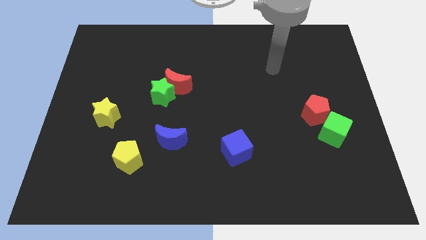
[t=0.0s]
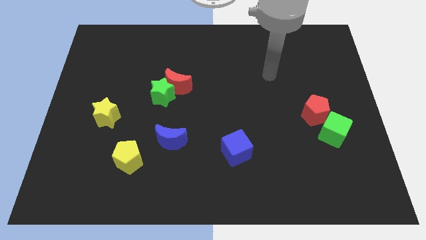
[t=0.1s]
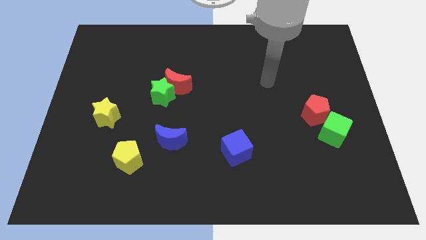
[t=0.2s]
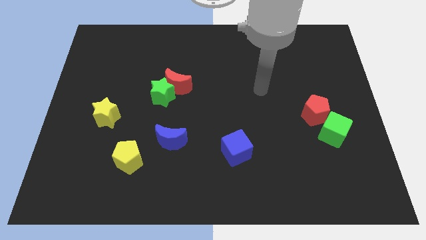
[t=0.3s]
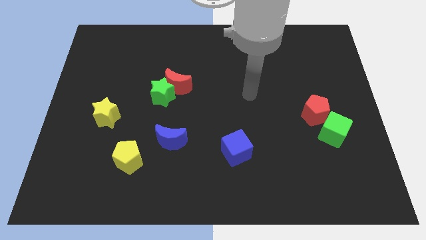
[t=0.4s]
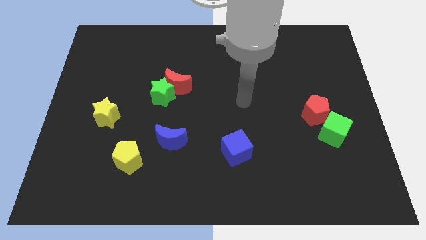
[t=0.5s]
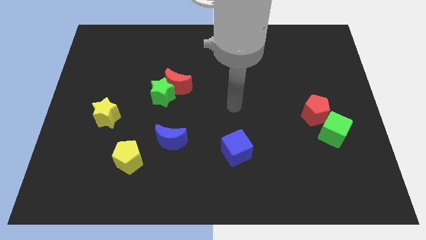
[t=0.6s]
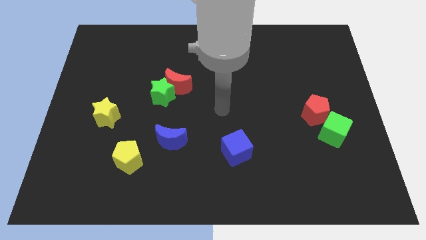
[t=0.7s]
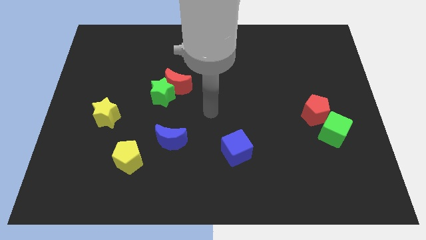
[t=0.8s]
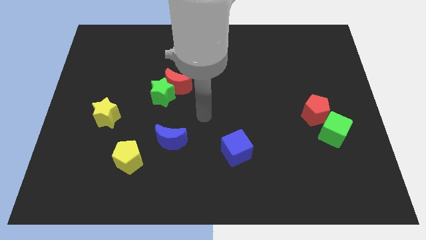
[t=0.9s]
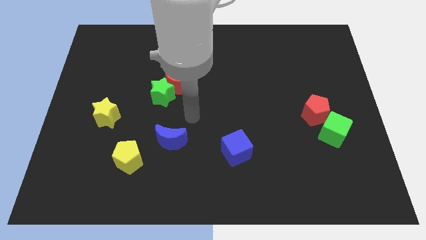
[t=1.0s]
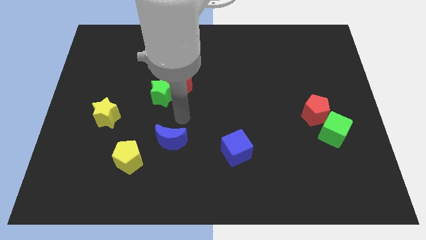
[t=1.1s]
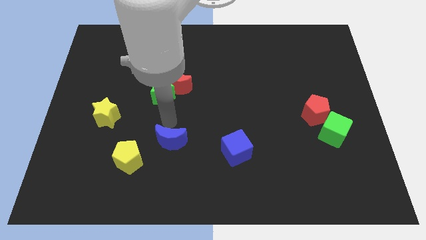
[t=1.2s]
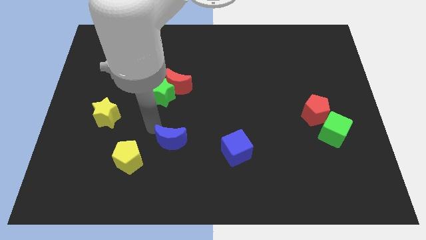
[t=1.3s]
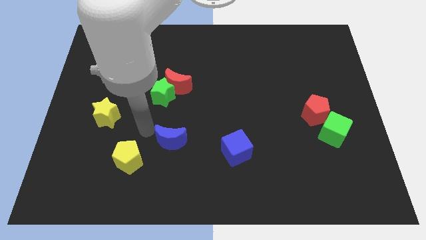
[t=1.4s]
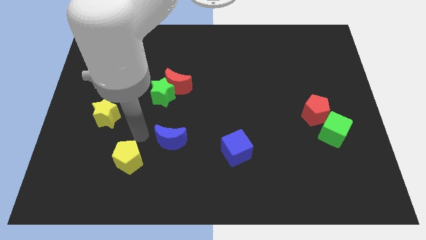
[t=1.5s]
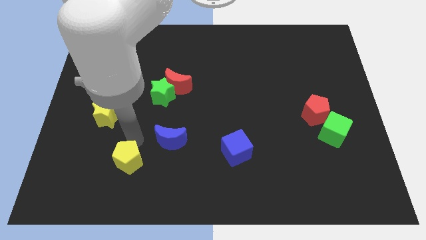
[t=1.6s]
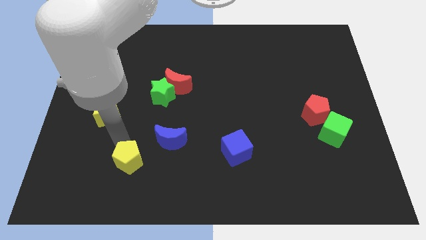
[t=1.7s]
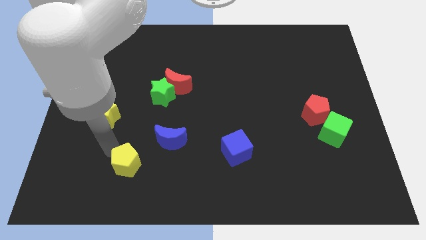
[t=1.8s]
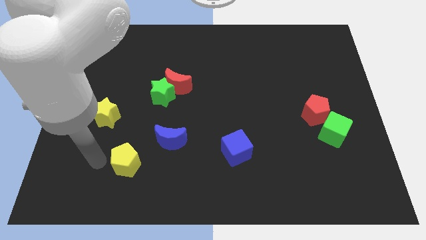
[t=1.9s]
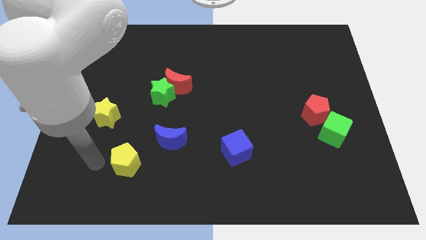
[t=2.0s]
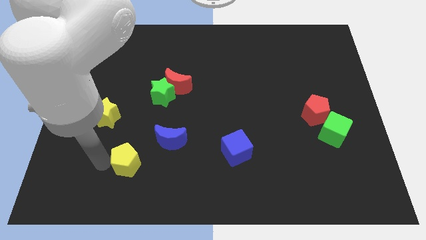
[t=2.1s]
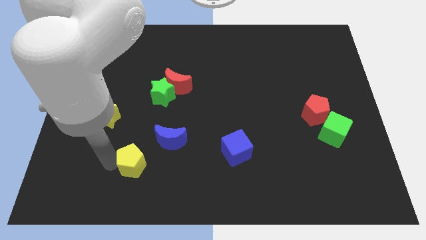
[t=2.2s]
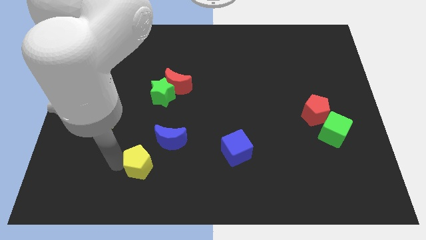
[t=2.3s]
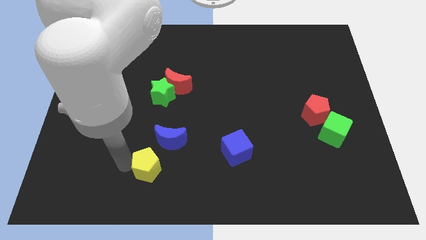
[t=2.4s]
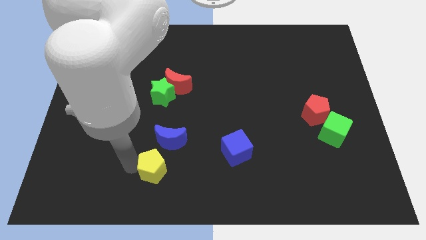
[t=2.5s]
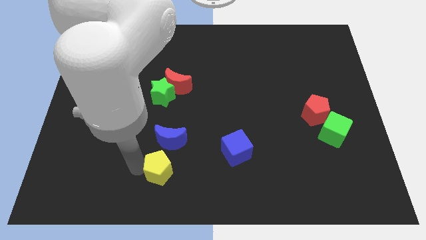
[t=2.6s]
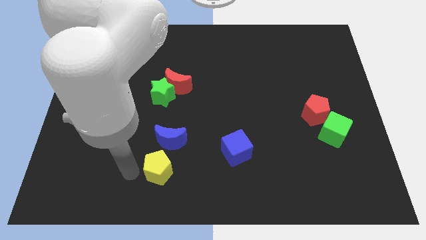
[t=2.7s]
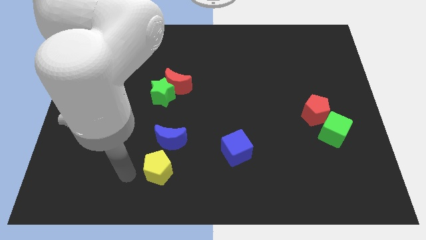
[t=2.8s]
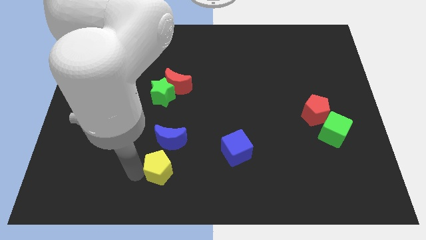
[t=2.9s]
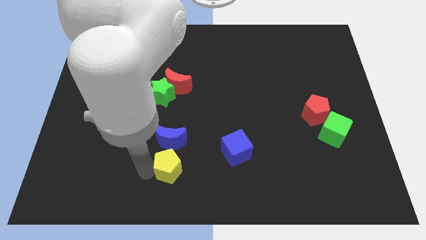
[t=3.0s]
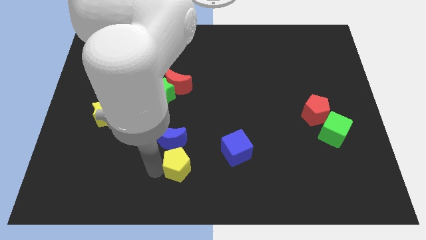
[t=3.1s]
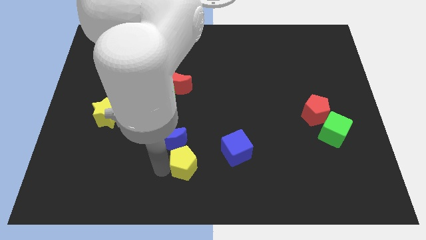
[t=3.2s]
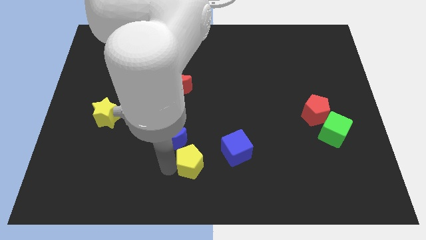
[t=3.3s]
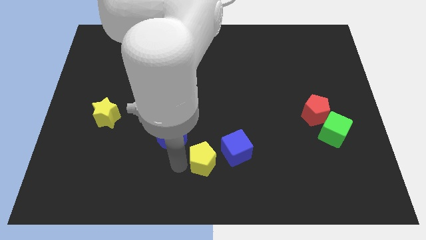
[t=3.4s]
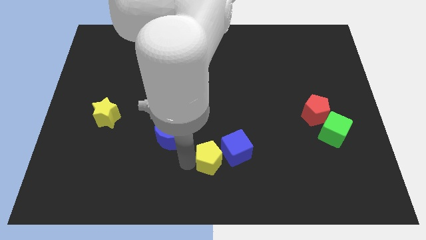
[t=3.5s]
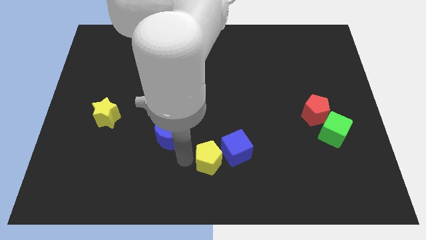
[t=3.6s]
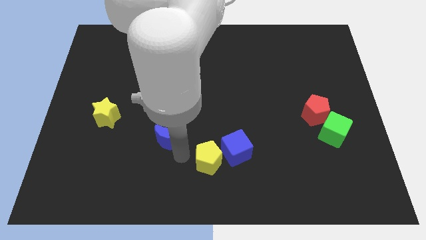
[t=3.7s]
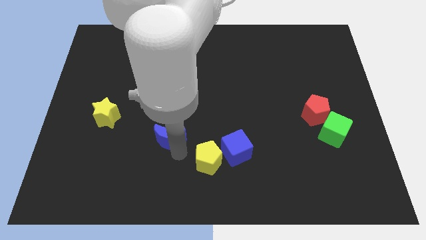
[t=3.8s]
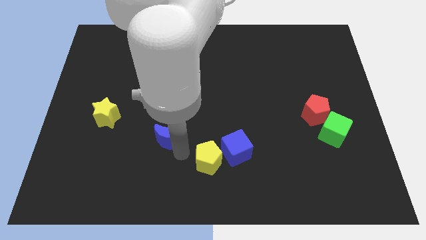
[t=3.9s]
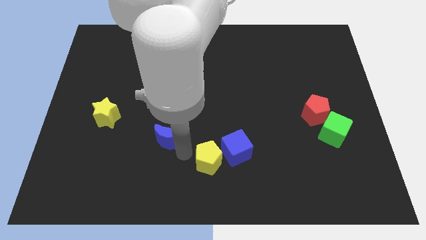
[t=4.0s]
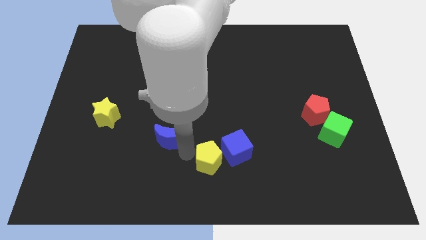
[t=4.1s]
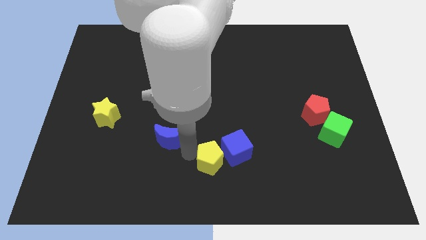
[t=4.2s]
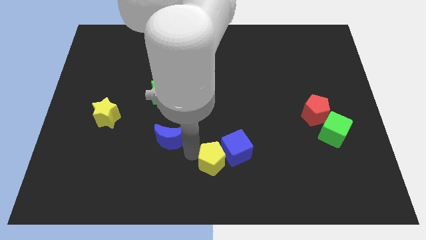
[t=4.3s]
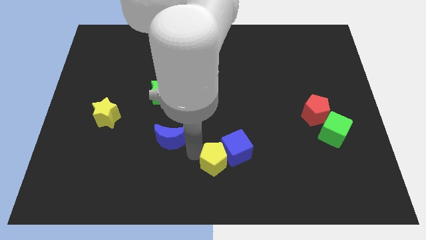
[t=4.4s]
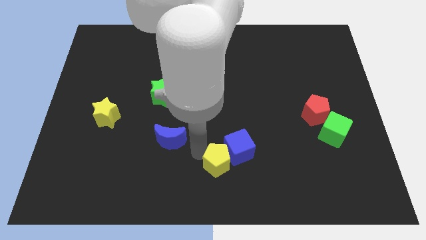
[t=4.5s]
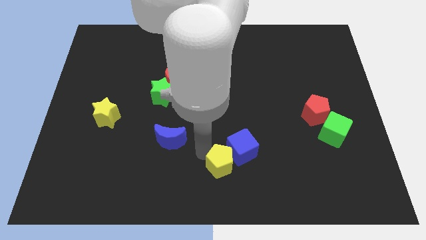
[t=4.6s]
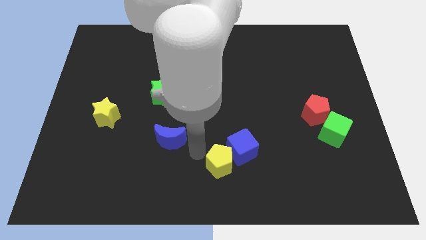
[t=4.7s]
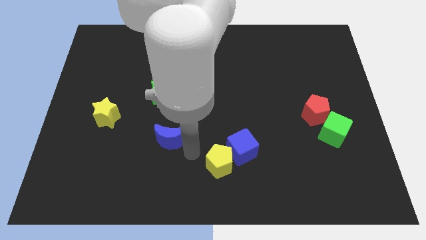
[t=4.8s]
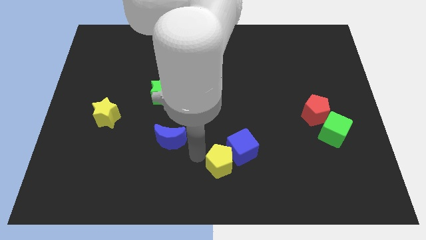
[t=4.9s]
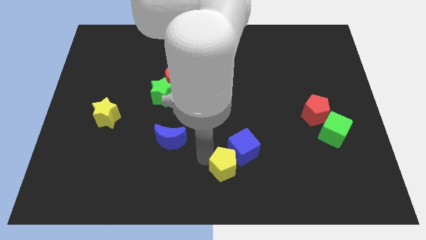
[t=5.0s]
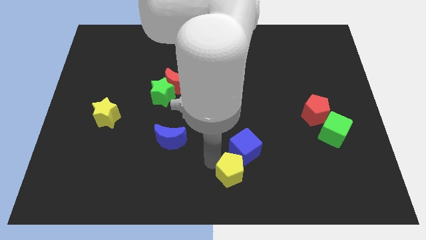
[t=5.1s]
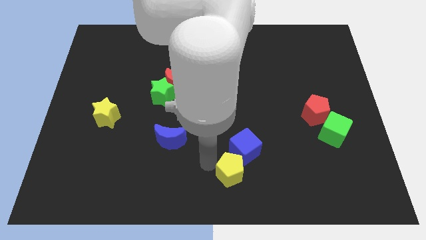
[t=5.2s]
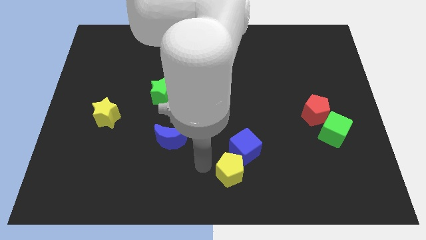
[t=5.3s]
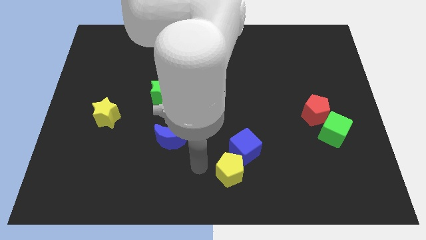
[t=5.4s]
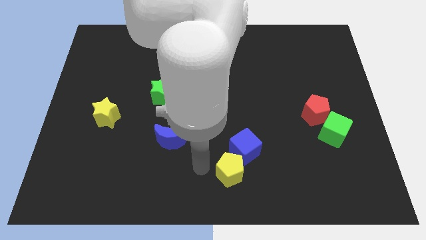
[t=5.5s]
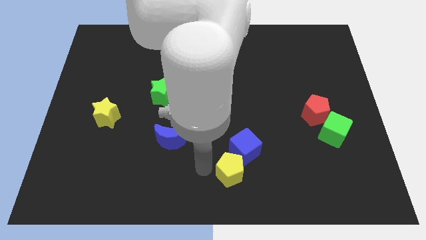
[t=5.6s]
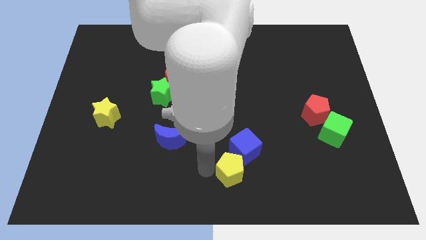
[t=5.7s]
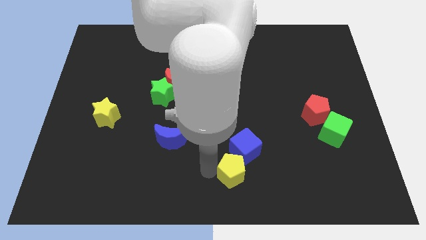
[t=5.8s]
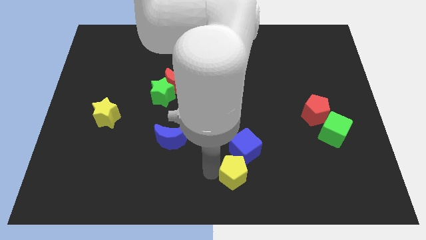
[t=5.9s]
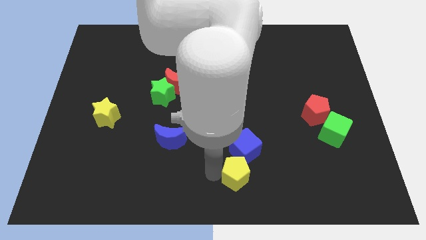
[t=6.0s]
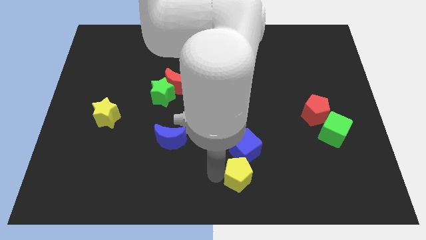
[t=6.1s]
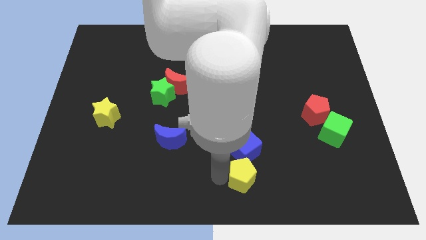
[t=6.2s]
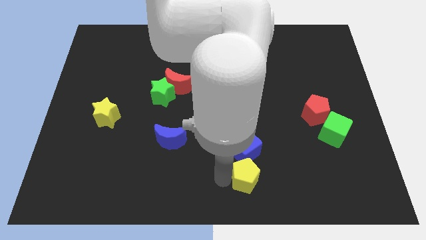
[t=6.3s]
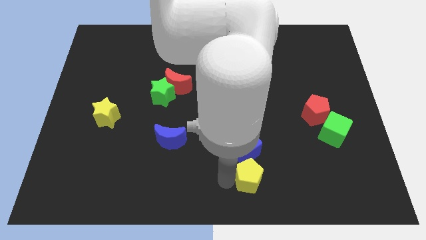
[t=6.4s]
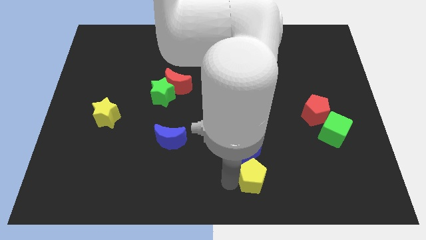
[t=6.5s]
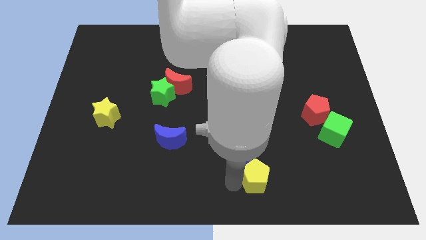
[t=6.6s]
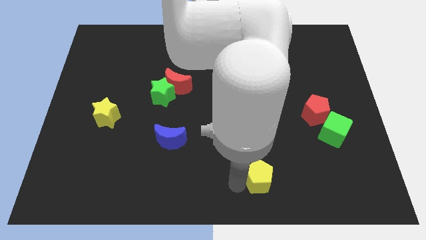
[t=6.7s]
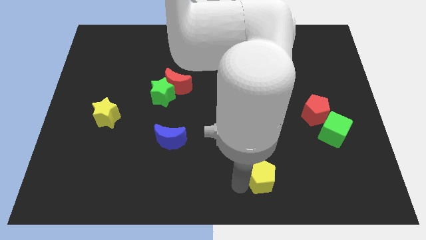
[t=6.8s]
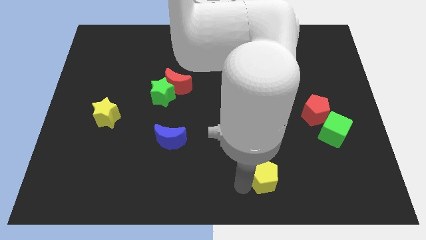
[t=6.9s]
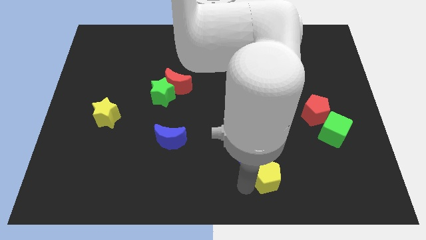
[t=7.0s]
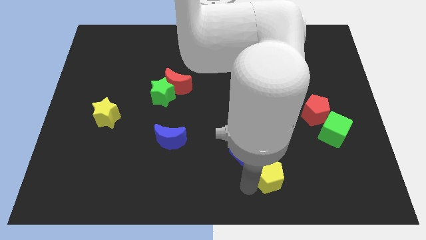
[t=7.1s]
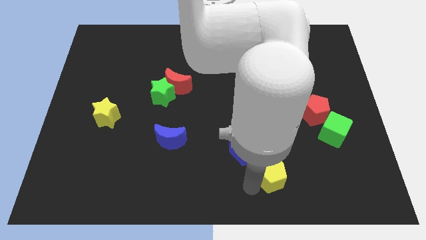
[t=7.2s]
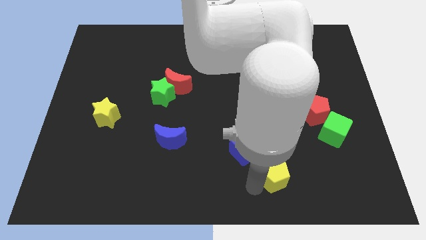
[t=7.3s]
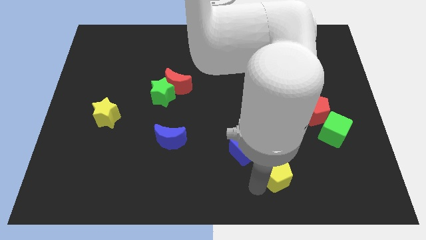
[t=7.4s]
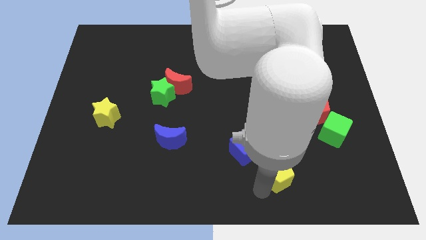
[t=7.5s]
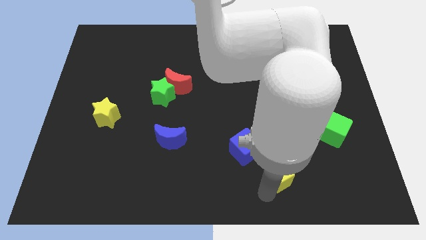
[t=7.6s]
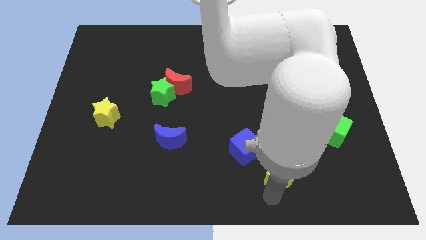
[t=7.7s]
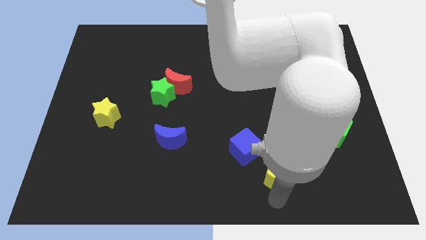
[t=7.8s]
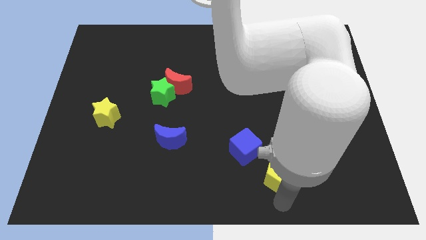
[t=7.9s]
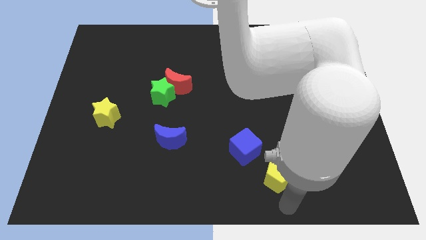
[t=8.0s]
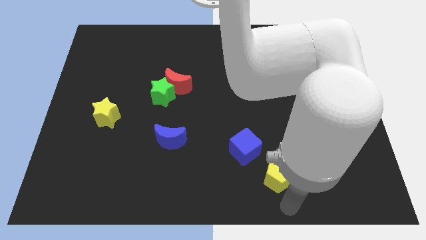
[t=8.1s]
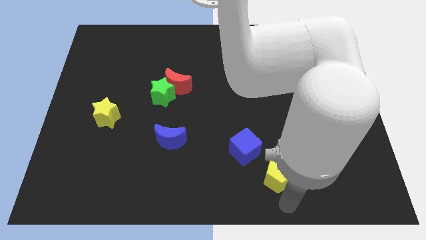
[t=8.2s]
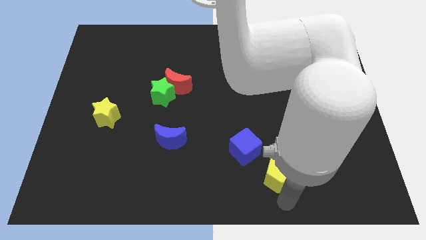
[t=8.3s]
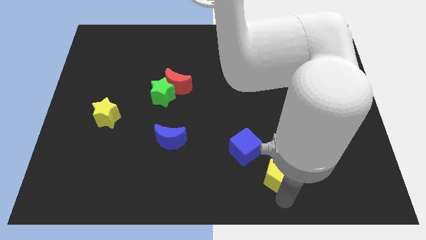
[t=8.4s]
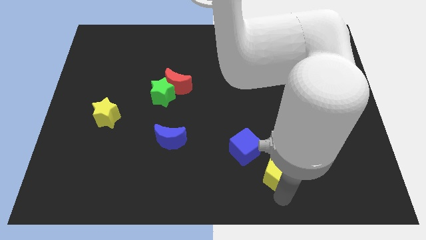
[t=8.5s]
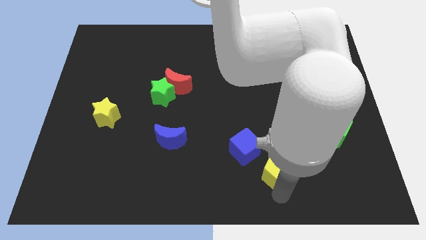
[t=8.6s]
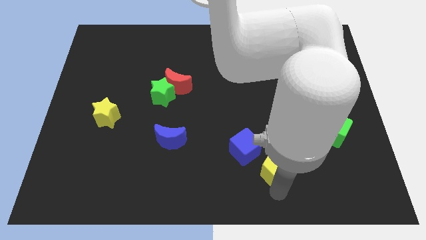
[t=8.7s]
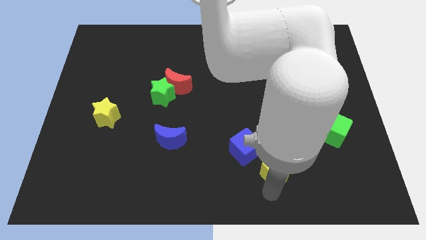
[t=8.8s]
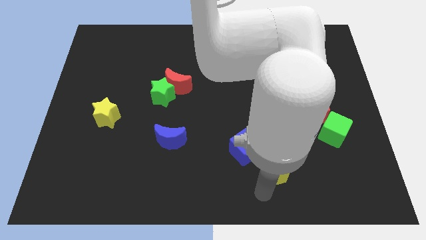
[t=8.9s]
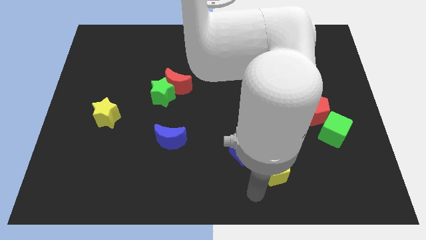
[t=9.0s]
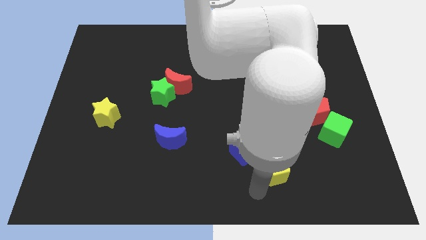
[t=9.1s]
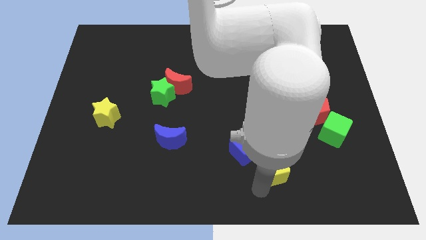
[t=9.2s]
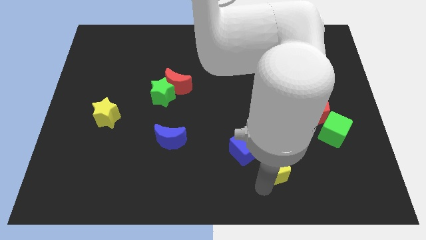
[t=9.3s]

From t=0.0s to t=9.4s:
slide the yellow pentagon to the right of the blue cube
